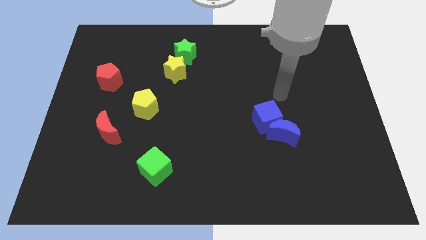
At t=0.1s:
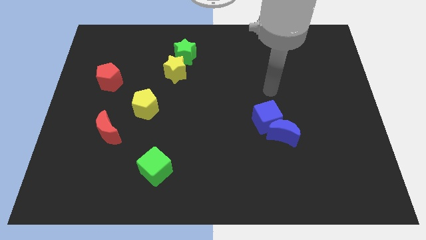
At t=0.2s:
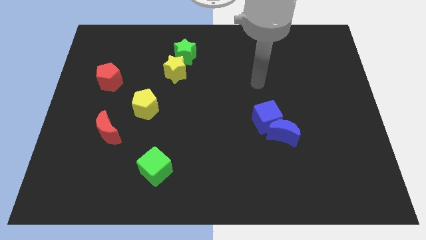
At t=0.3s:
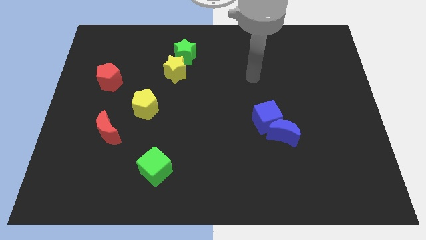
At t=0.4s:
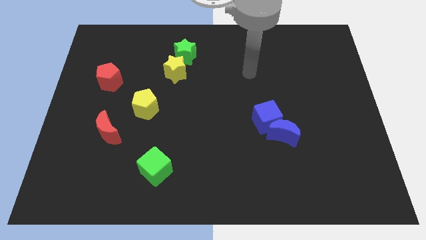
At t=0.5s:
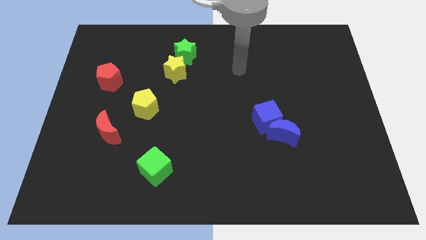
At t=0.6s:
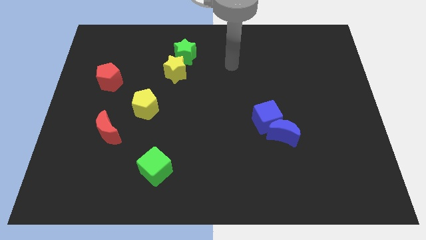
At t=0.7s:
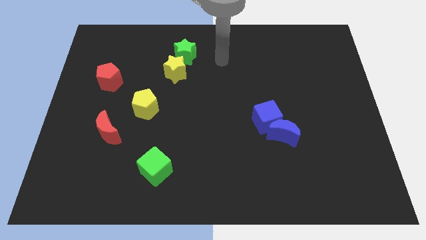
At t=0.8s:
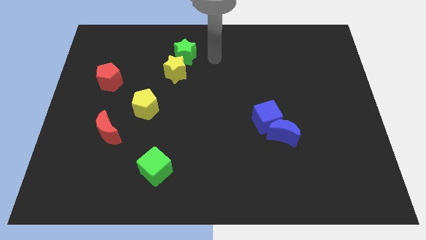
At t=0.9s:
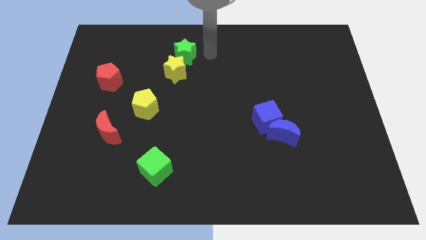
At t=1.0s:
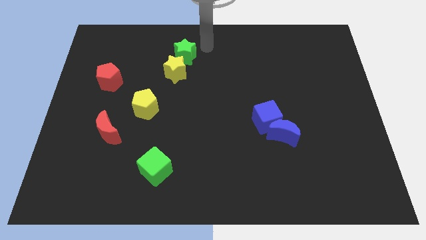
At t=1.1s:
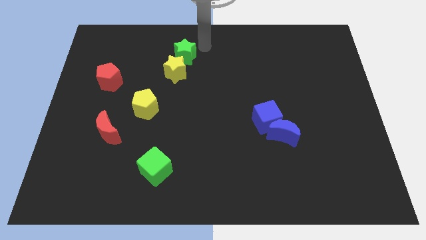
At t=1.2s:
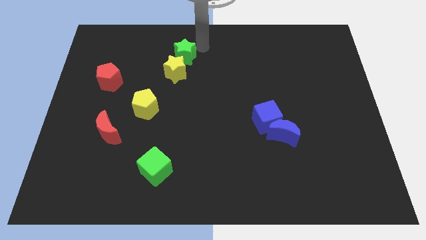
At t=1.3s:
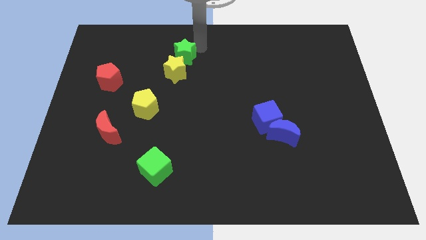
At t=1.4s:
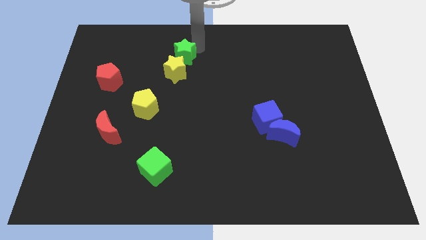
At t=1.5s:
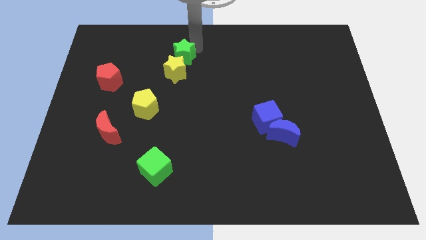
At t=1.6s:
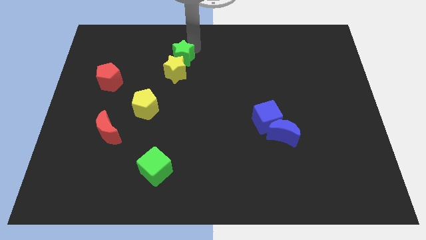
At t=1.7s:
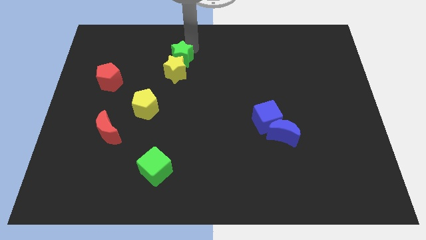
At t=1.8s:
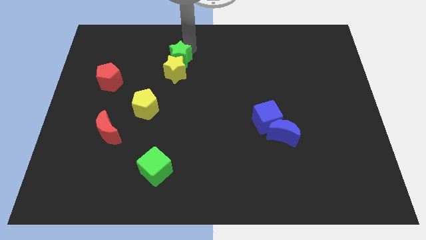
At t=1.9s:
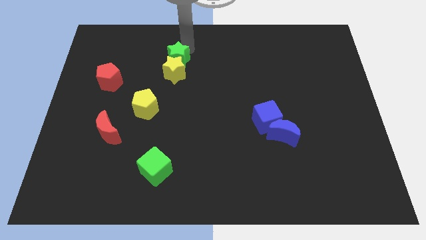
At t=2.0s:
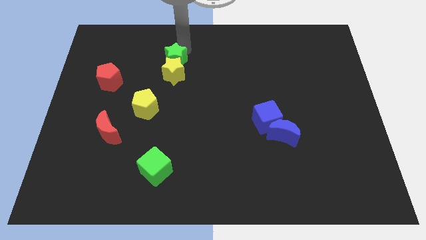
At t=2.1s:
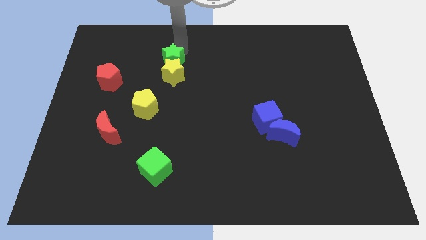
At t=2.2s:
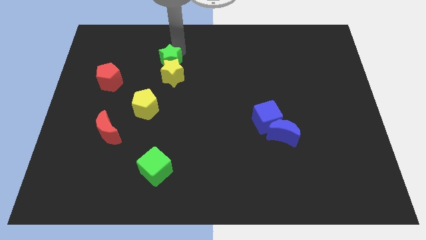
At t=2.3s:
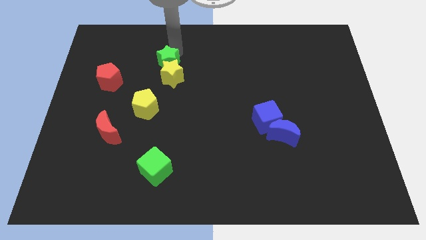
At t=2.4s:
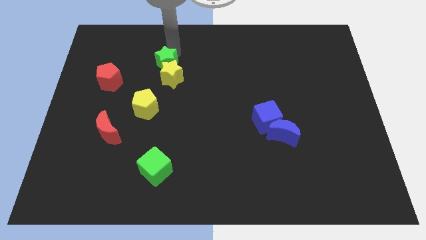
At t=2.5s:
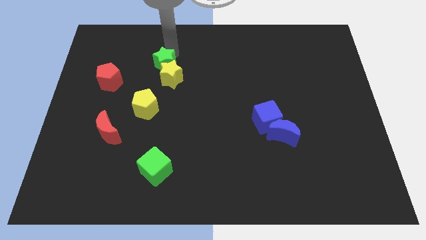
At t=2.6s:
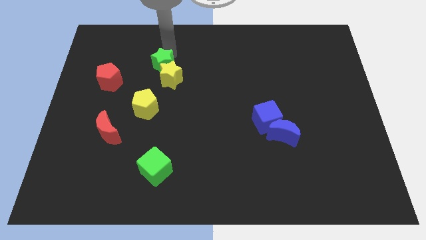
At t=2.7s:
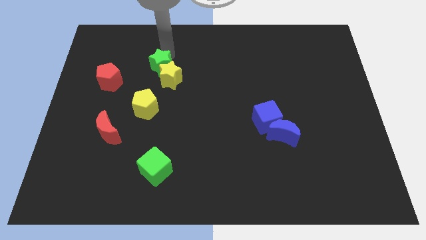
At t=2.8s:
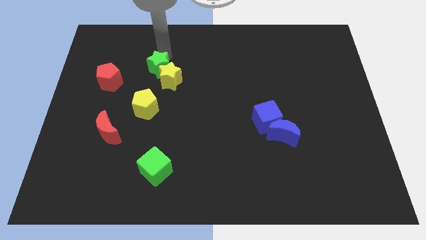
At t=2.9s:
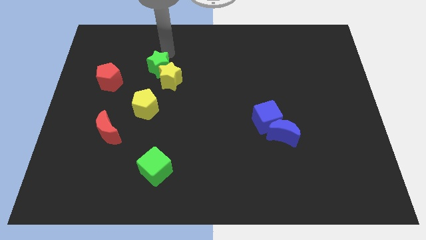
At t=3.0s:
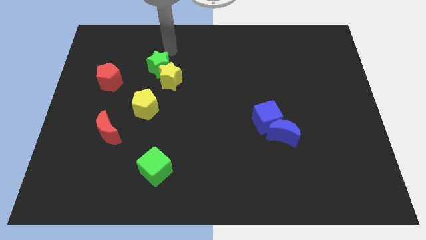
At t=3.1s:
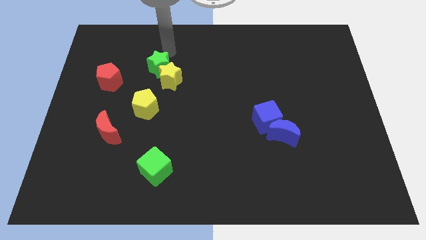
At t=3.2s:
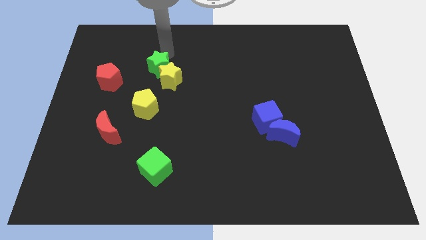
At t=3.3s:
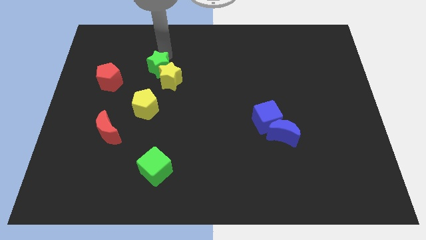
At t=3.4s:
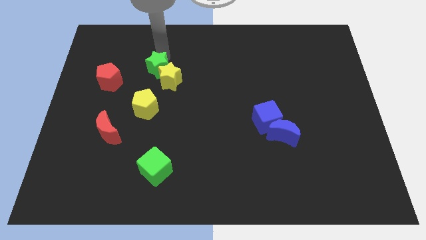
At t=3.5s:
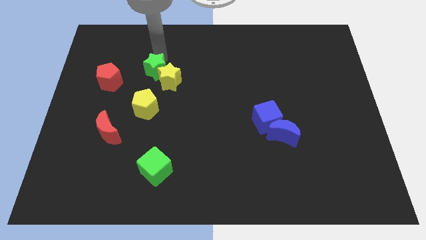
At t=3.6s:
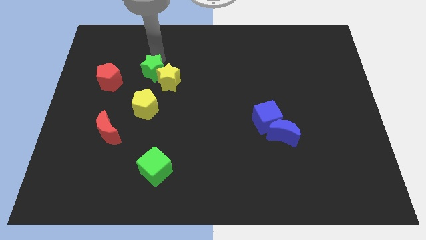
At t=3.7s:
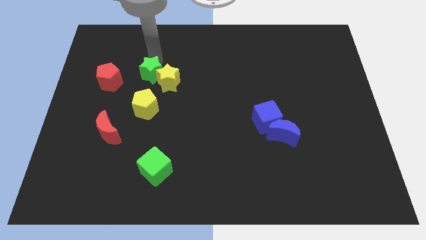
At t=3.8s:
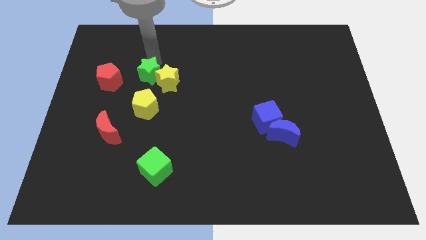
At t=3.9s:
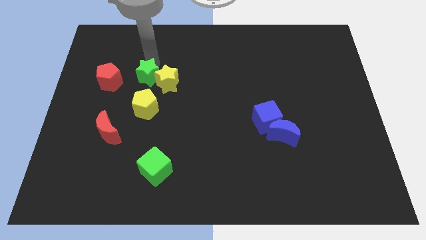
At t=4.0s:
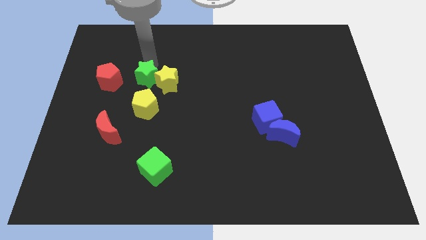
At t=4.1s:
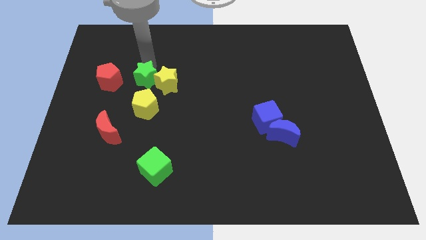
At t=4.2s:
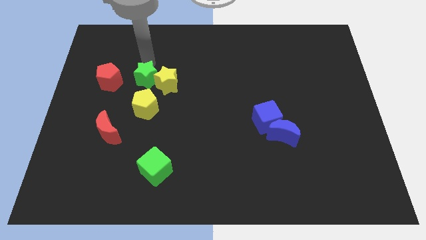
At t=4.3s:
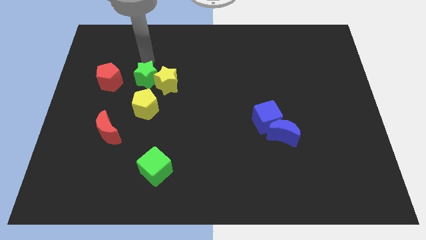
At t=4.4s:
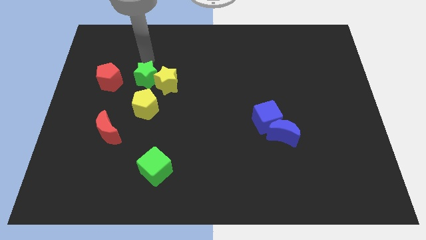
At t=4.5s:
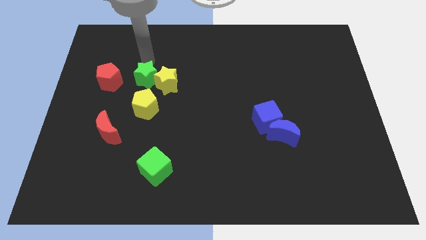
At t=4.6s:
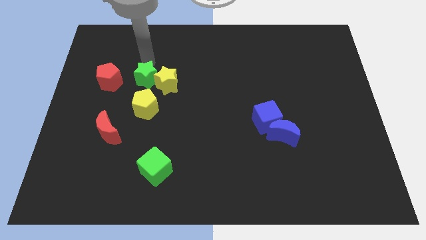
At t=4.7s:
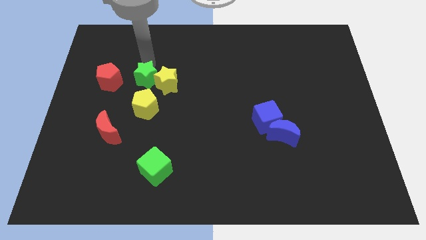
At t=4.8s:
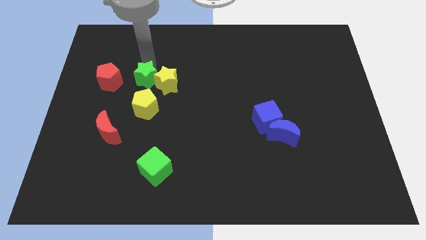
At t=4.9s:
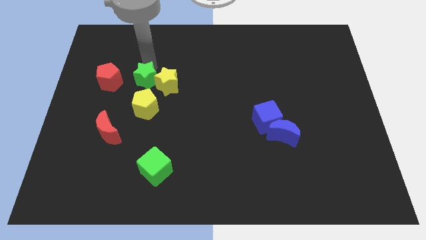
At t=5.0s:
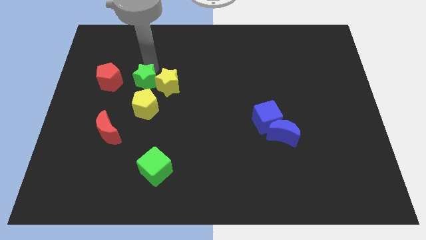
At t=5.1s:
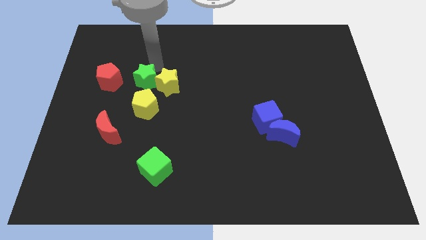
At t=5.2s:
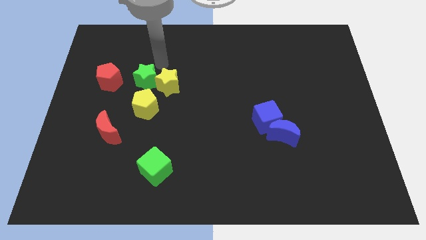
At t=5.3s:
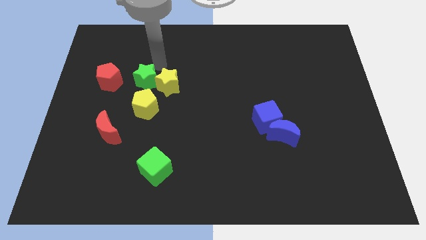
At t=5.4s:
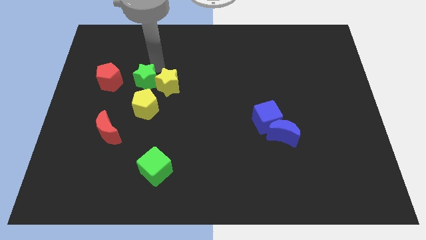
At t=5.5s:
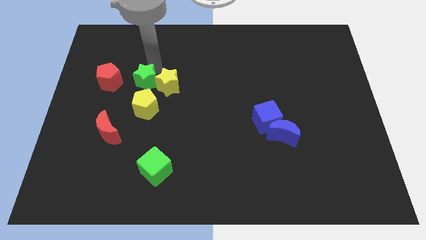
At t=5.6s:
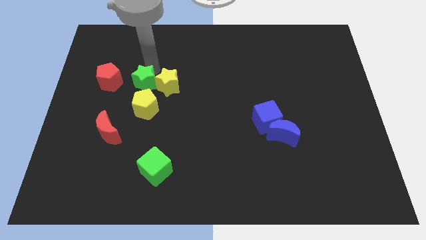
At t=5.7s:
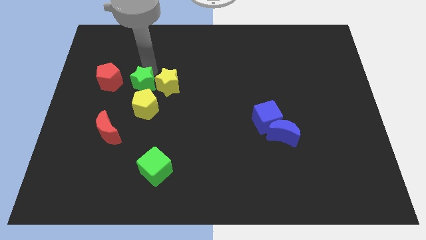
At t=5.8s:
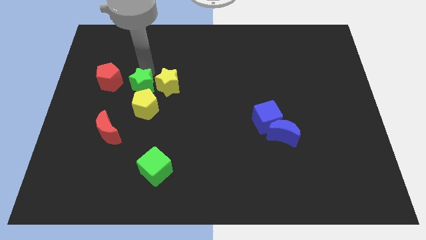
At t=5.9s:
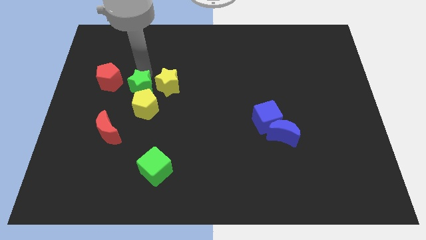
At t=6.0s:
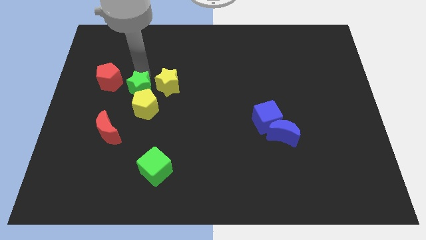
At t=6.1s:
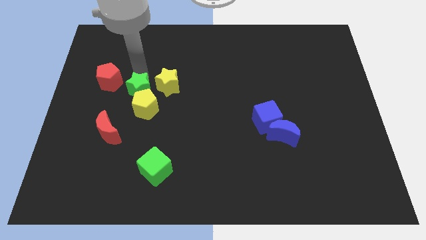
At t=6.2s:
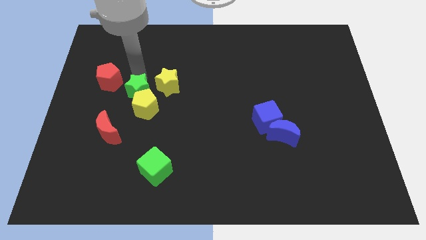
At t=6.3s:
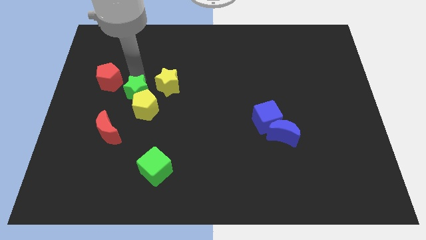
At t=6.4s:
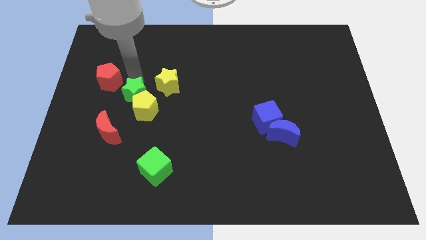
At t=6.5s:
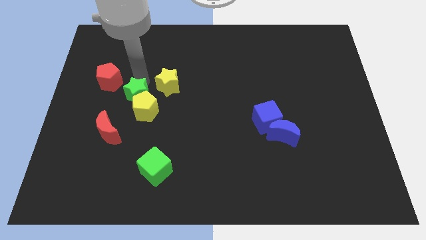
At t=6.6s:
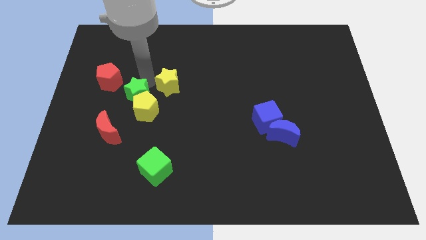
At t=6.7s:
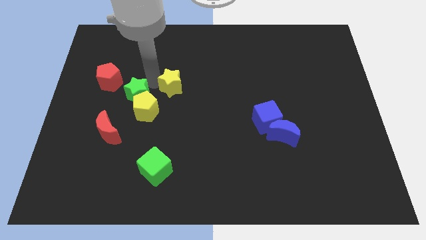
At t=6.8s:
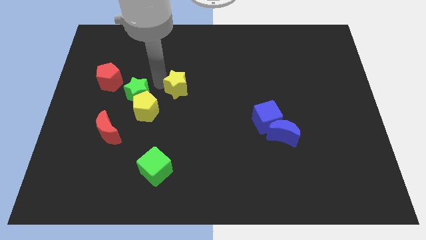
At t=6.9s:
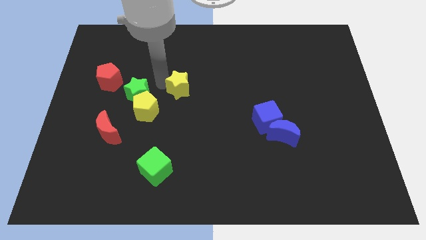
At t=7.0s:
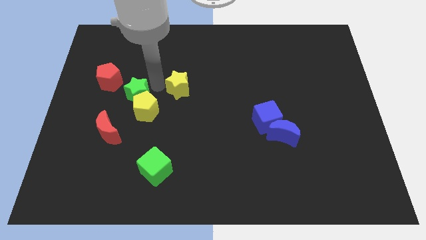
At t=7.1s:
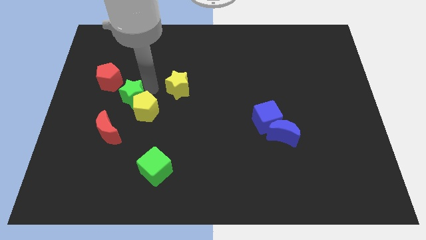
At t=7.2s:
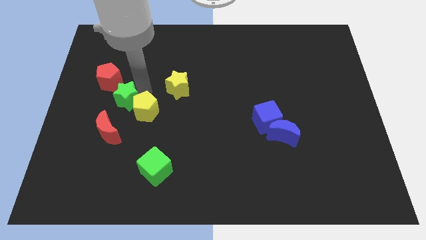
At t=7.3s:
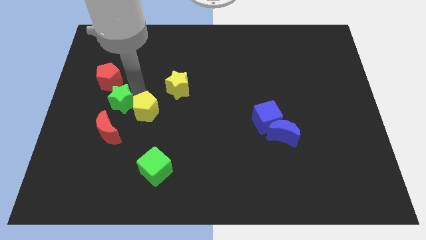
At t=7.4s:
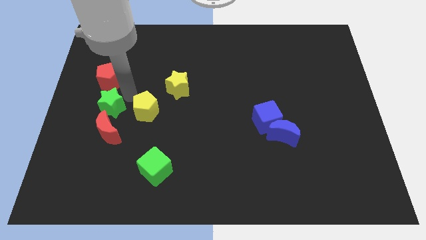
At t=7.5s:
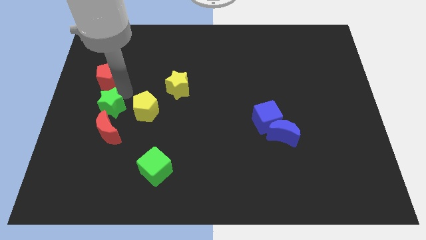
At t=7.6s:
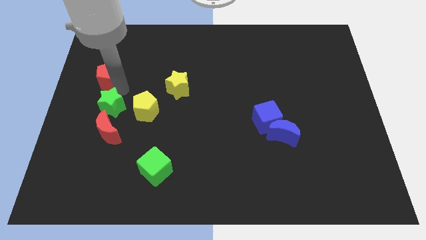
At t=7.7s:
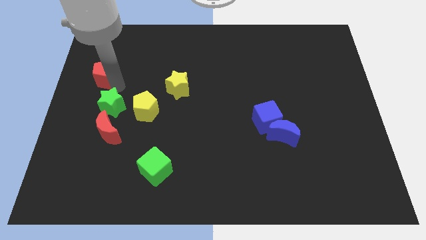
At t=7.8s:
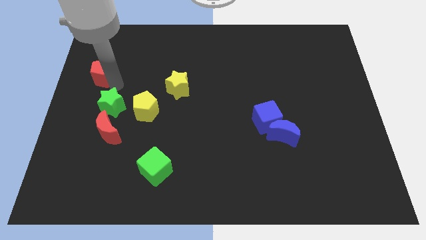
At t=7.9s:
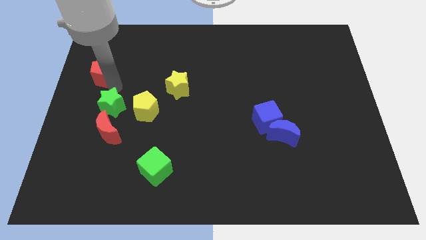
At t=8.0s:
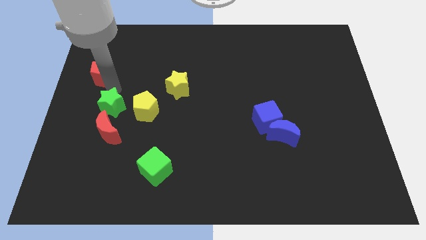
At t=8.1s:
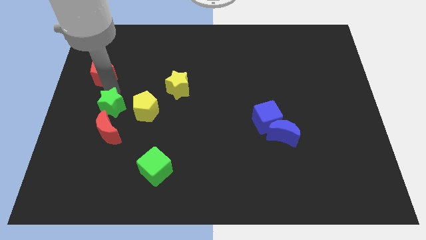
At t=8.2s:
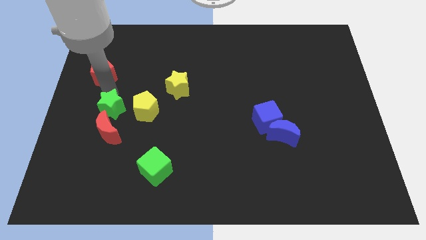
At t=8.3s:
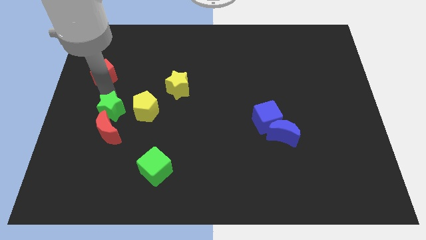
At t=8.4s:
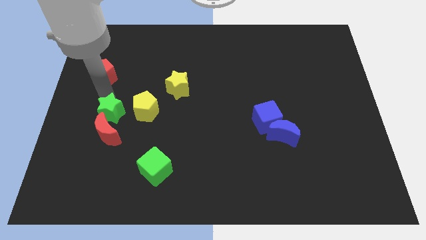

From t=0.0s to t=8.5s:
slide the green star to the red moon
